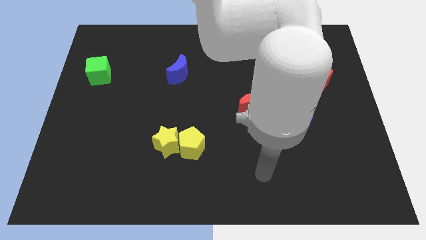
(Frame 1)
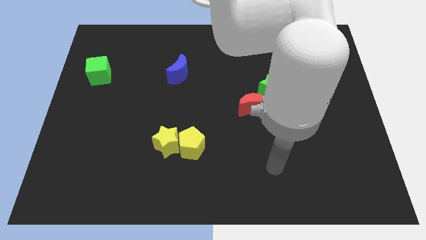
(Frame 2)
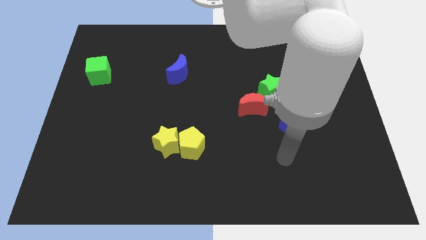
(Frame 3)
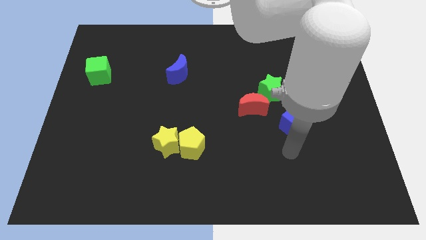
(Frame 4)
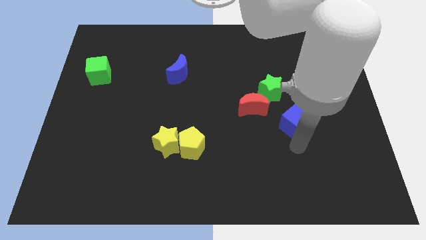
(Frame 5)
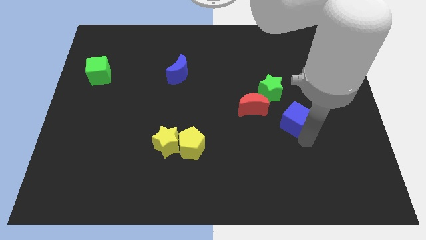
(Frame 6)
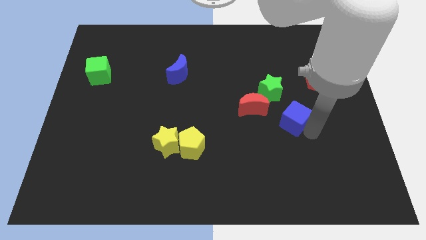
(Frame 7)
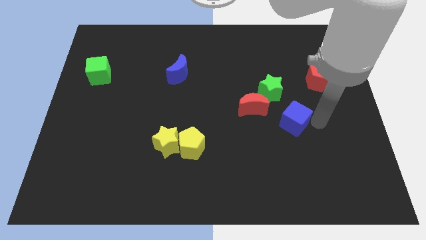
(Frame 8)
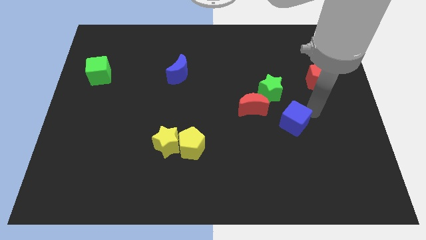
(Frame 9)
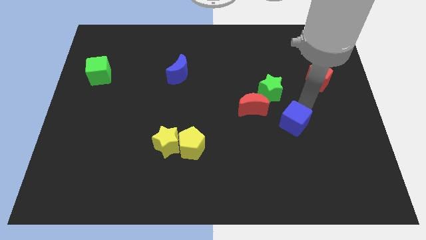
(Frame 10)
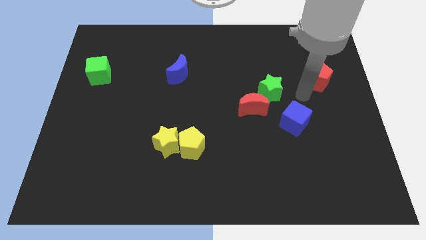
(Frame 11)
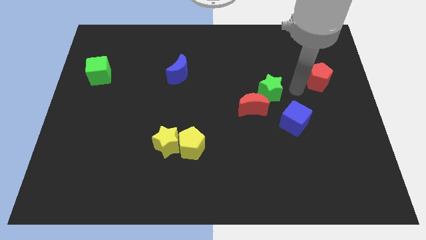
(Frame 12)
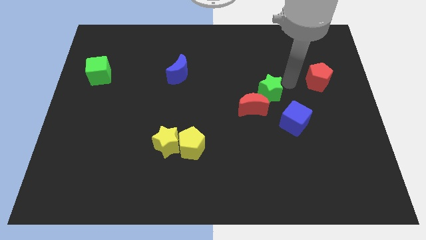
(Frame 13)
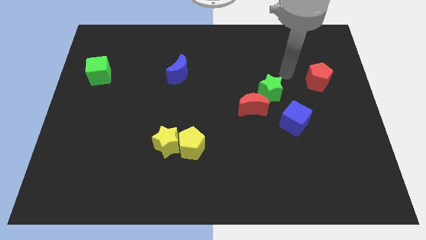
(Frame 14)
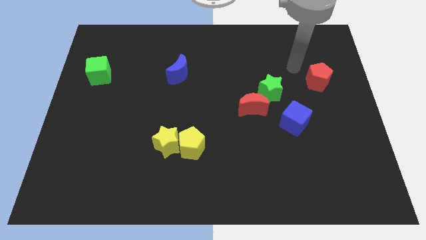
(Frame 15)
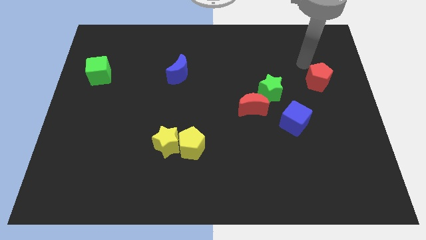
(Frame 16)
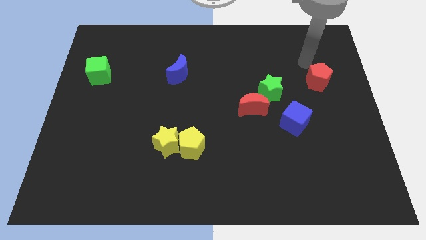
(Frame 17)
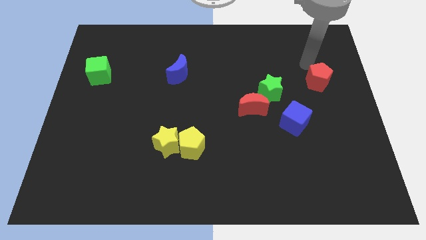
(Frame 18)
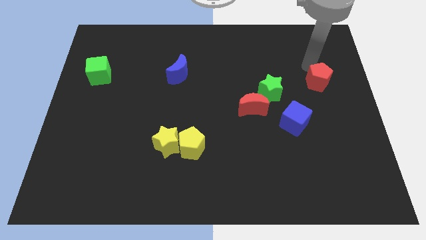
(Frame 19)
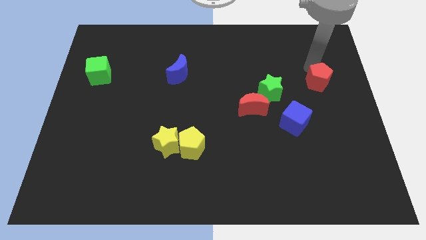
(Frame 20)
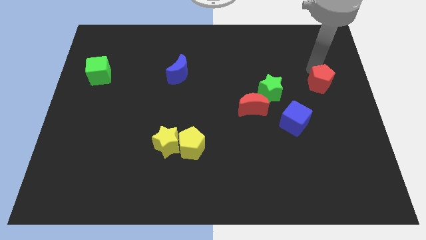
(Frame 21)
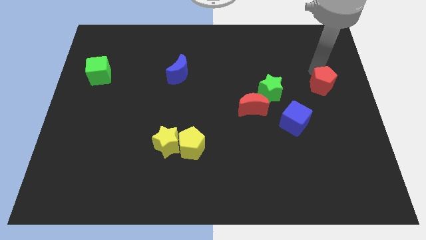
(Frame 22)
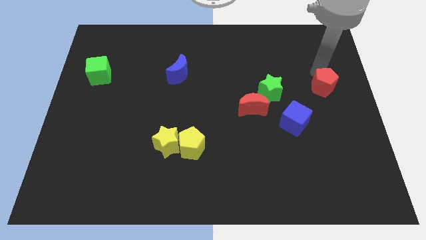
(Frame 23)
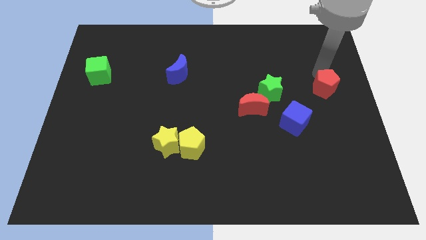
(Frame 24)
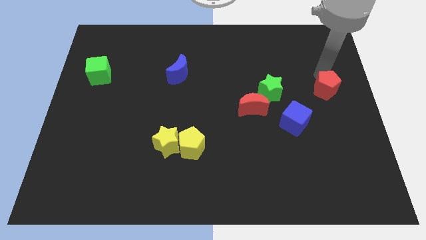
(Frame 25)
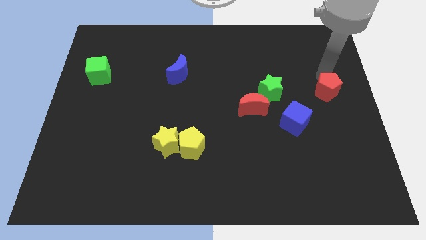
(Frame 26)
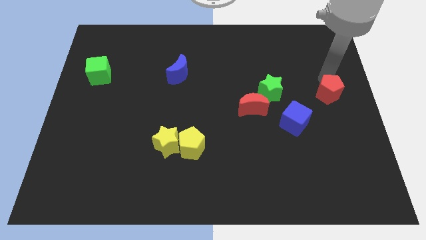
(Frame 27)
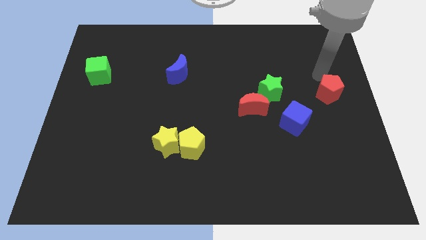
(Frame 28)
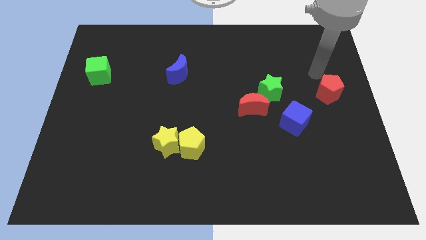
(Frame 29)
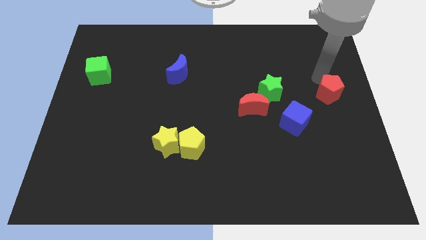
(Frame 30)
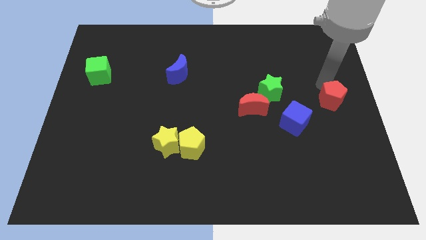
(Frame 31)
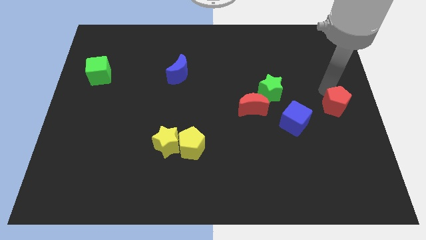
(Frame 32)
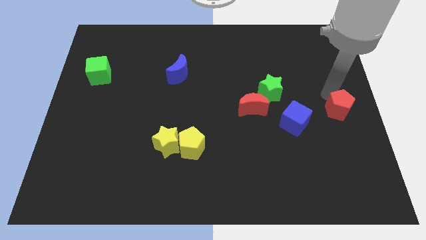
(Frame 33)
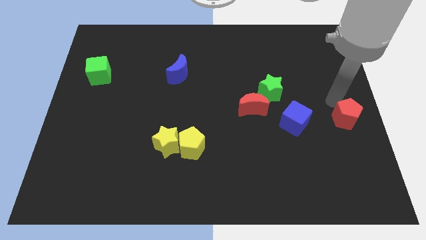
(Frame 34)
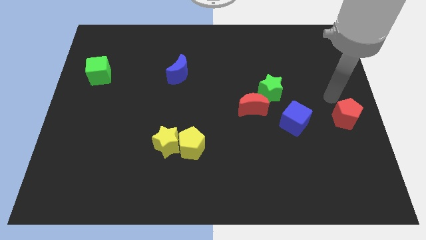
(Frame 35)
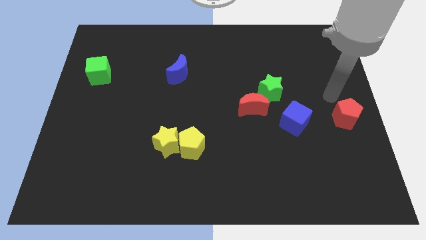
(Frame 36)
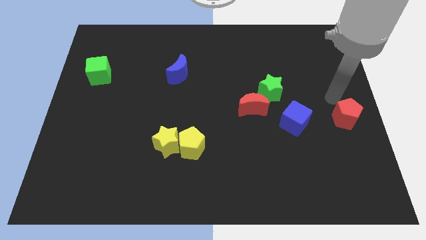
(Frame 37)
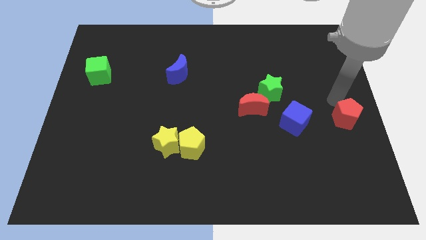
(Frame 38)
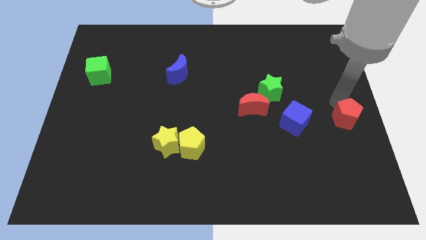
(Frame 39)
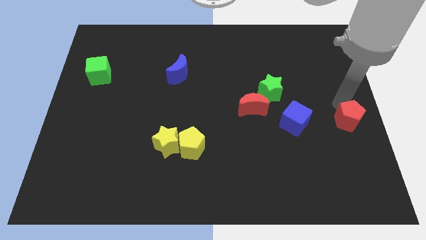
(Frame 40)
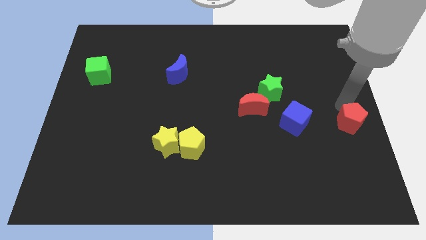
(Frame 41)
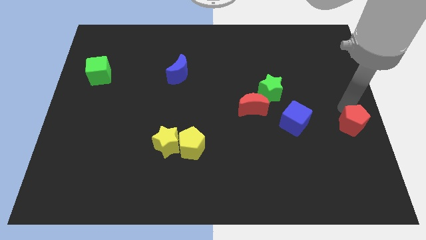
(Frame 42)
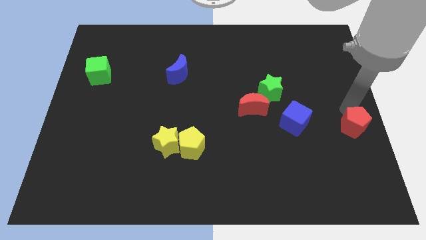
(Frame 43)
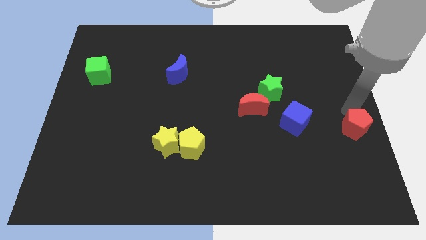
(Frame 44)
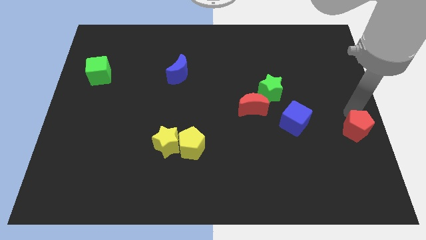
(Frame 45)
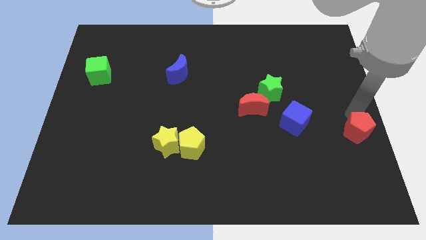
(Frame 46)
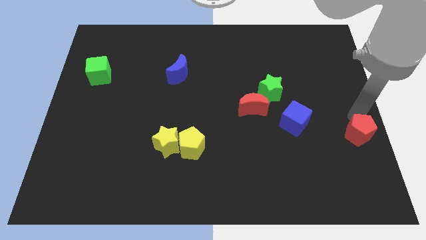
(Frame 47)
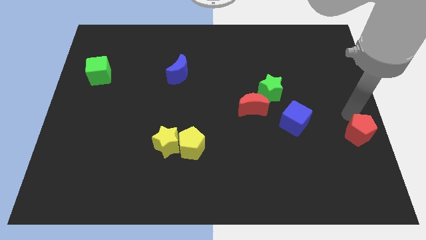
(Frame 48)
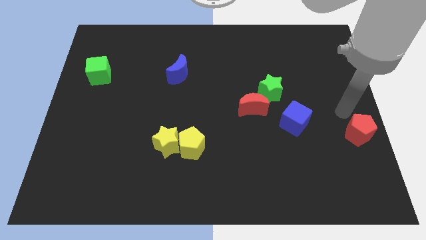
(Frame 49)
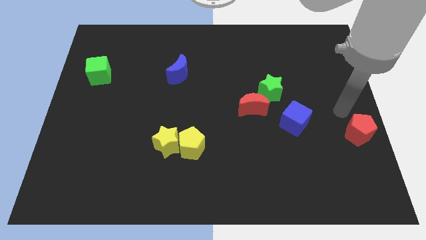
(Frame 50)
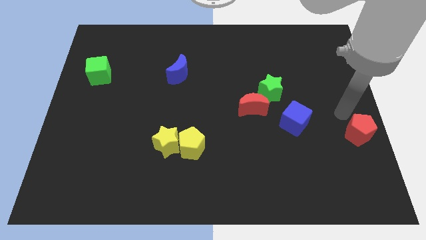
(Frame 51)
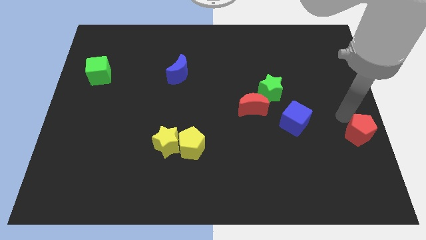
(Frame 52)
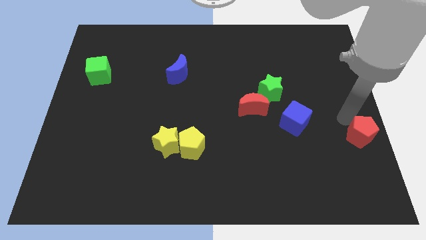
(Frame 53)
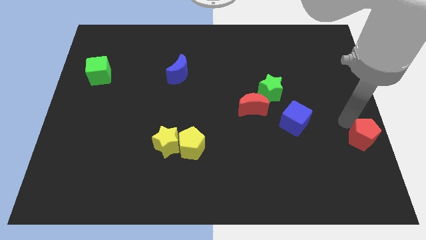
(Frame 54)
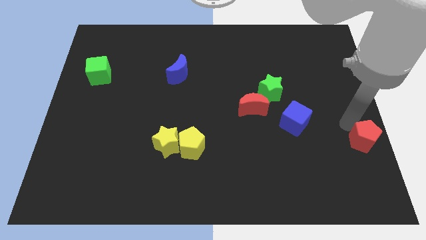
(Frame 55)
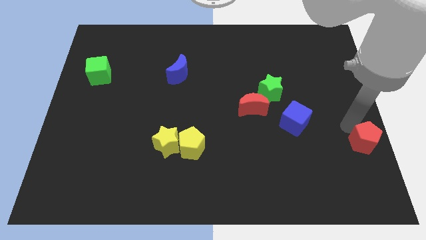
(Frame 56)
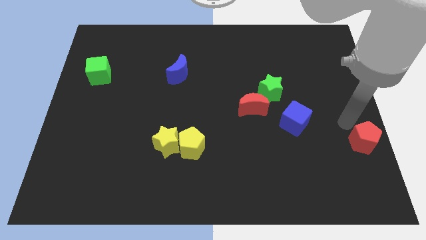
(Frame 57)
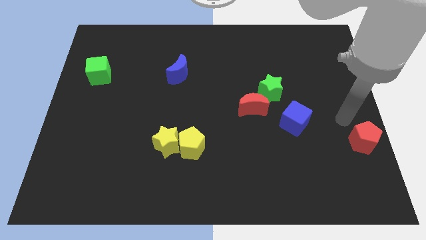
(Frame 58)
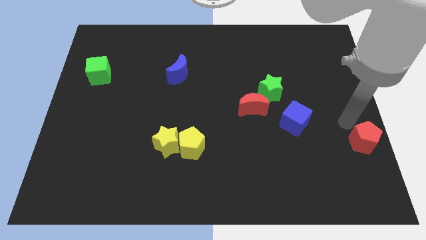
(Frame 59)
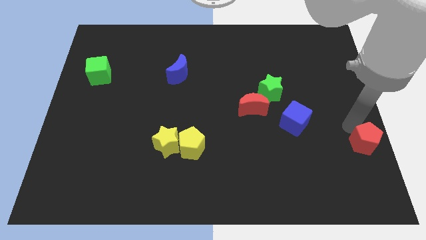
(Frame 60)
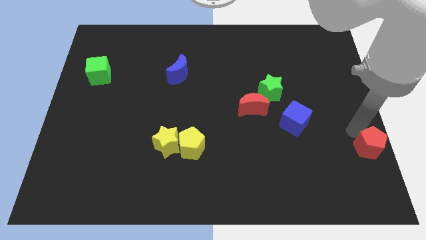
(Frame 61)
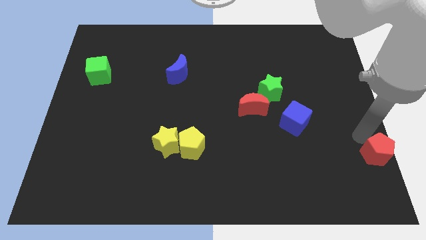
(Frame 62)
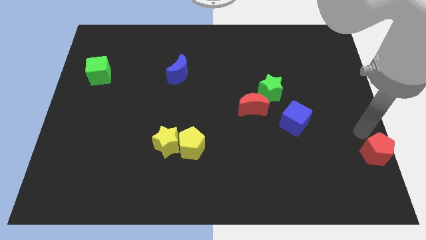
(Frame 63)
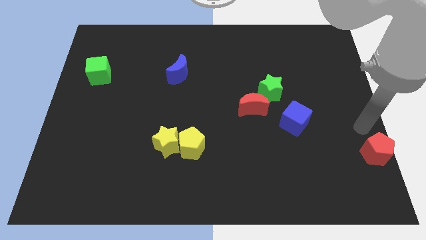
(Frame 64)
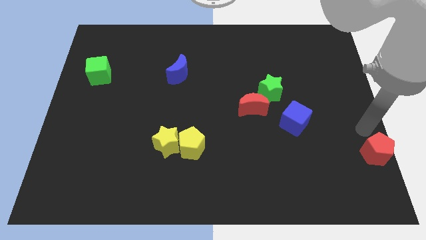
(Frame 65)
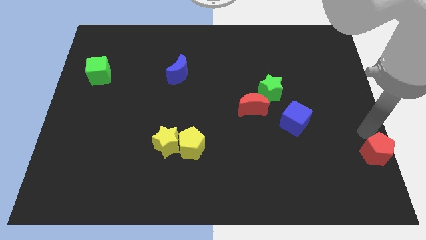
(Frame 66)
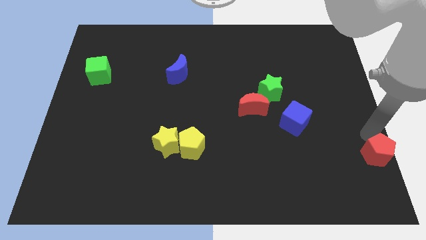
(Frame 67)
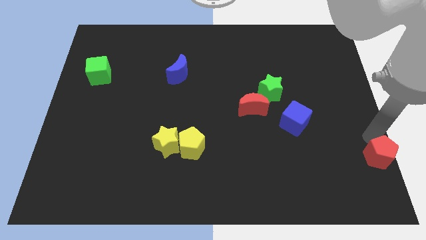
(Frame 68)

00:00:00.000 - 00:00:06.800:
slide the red pentagon to the bottom right of the board
